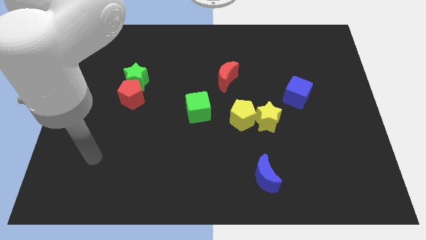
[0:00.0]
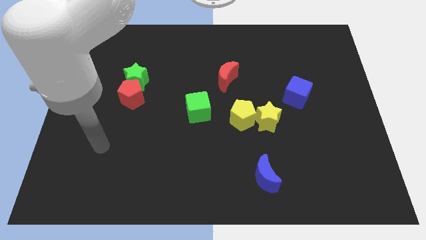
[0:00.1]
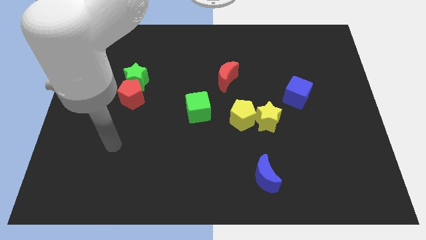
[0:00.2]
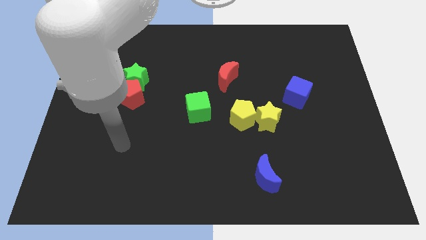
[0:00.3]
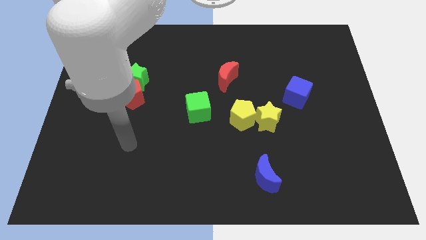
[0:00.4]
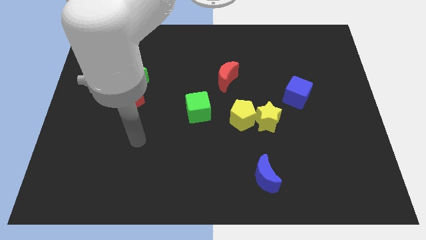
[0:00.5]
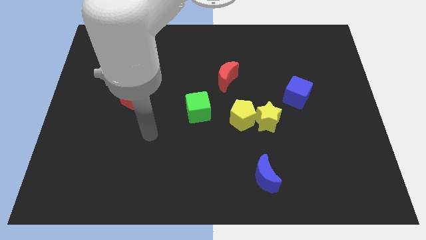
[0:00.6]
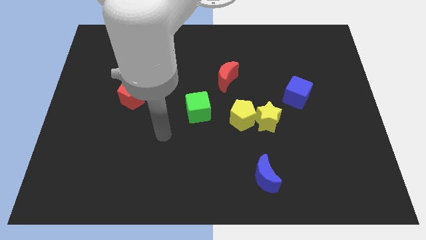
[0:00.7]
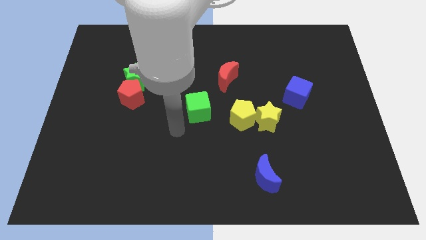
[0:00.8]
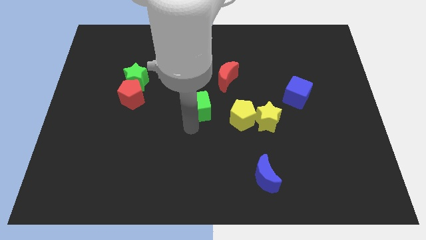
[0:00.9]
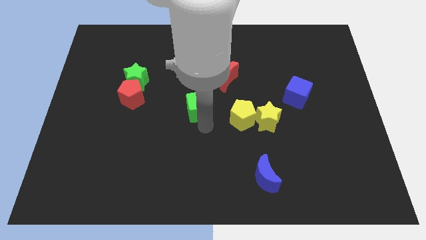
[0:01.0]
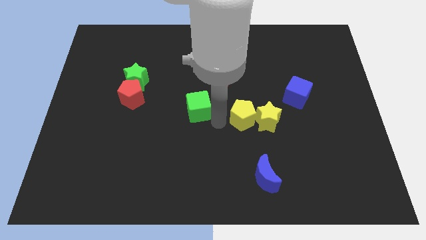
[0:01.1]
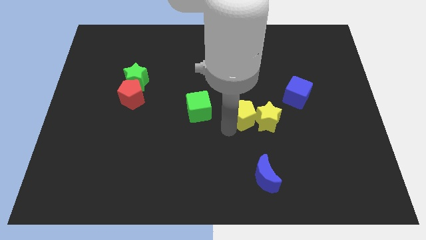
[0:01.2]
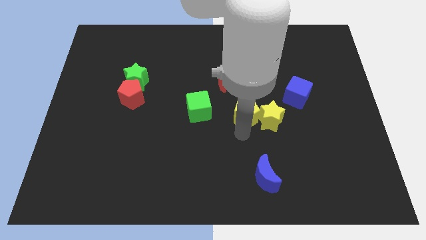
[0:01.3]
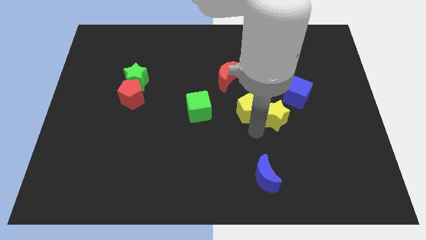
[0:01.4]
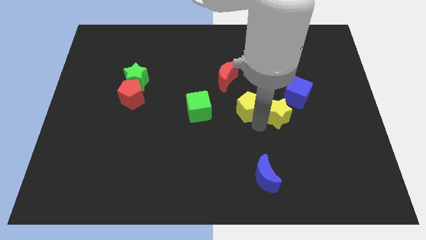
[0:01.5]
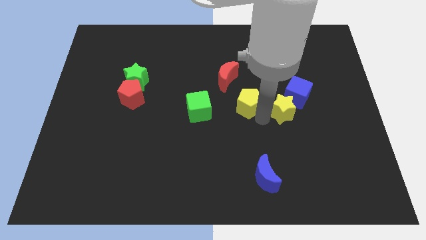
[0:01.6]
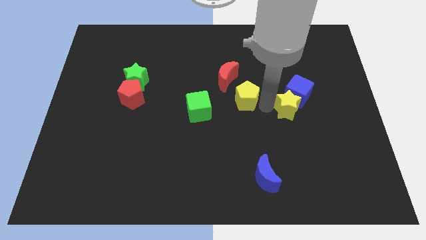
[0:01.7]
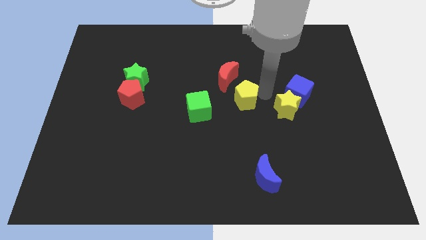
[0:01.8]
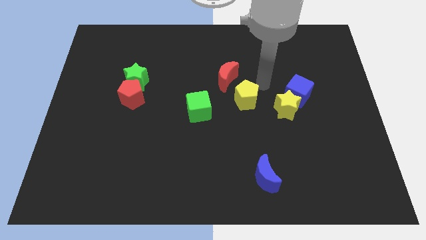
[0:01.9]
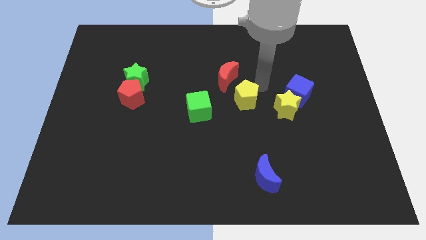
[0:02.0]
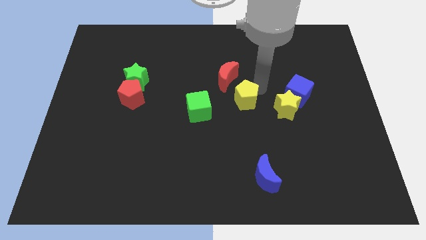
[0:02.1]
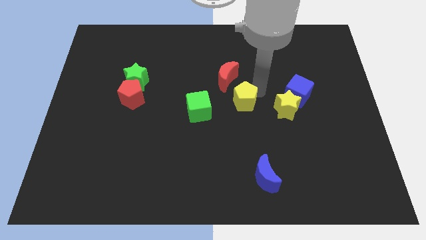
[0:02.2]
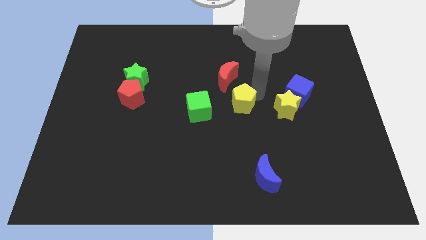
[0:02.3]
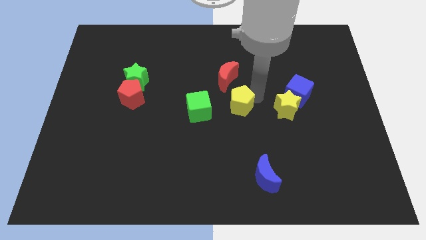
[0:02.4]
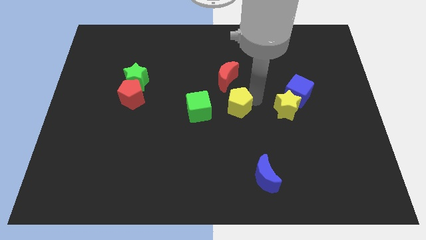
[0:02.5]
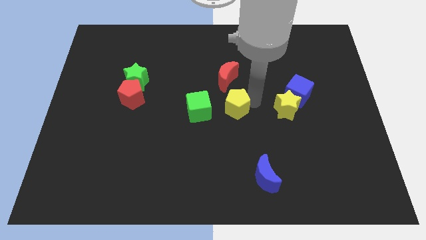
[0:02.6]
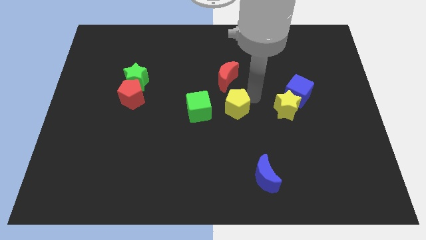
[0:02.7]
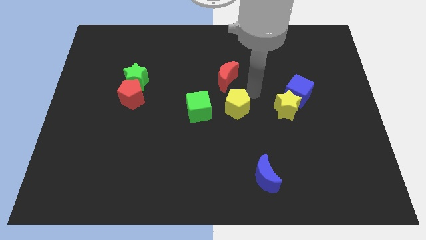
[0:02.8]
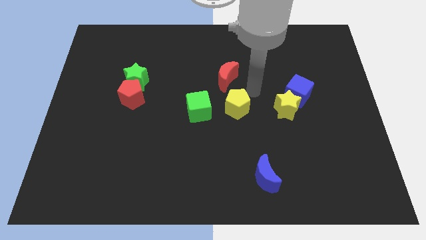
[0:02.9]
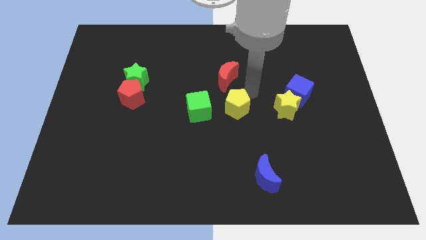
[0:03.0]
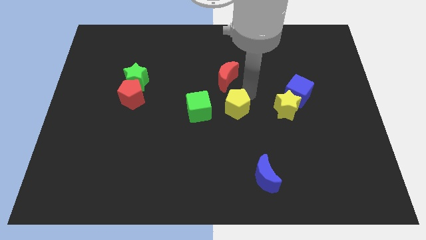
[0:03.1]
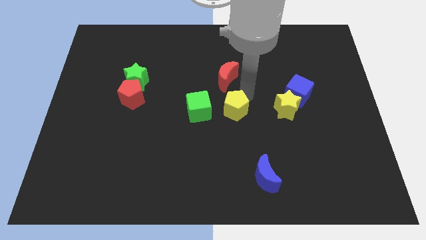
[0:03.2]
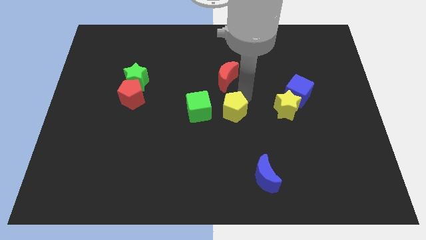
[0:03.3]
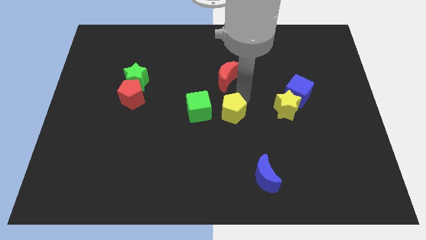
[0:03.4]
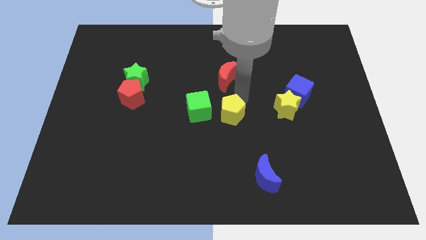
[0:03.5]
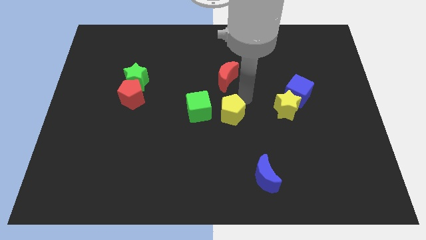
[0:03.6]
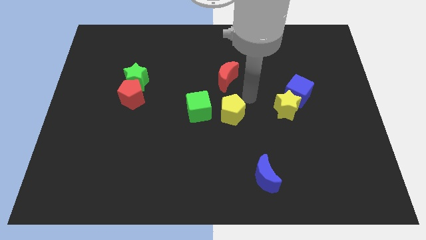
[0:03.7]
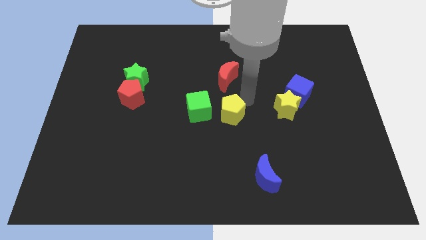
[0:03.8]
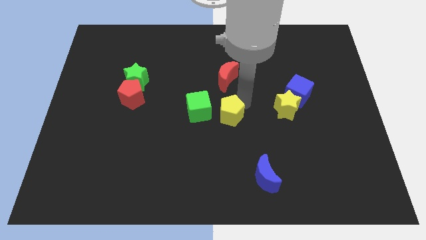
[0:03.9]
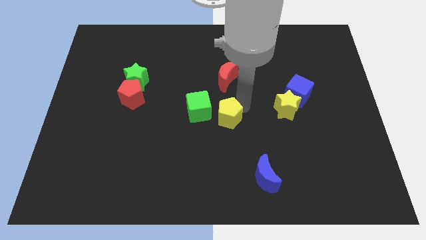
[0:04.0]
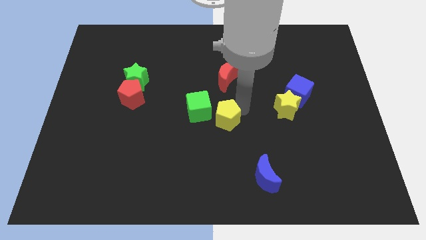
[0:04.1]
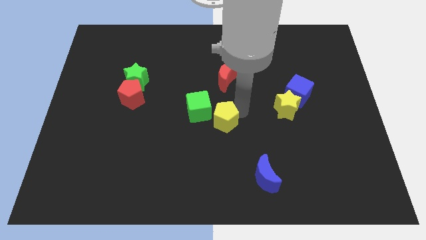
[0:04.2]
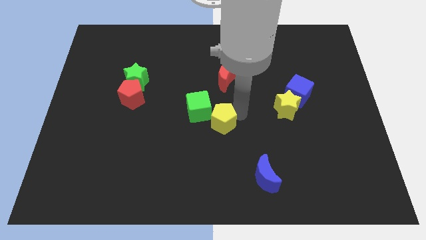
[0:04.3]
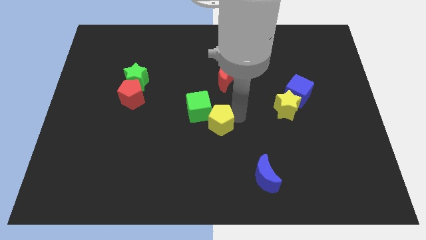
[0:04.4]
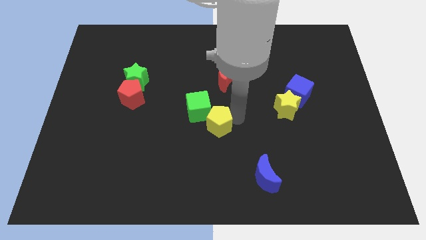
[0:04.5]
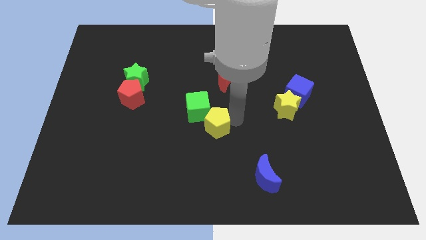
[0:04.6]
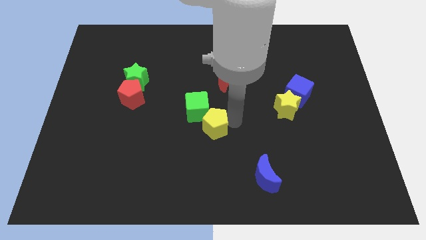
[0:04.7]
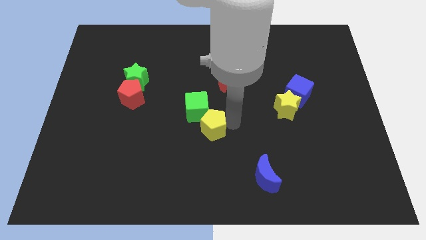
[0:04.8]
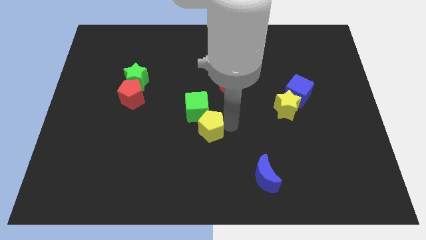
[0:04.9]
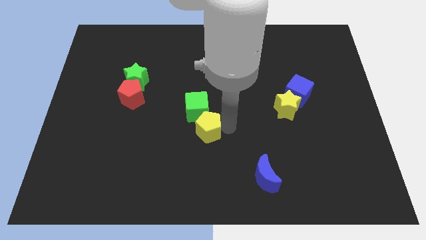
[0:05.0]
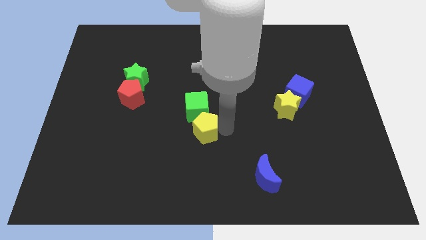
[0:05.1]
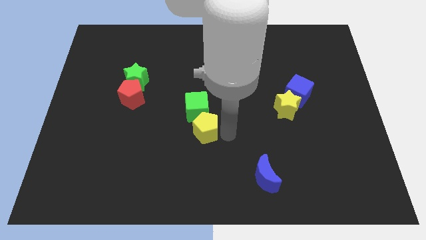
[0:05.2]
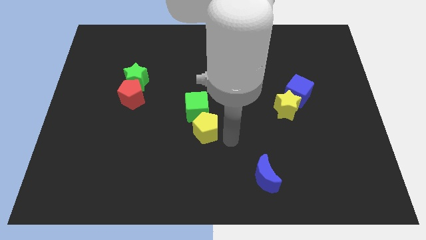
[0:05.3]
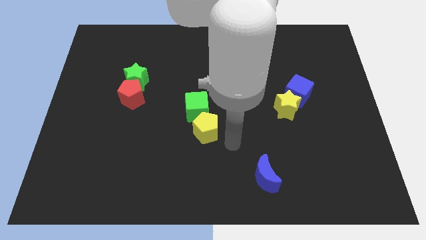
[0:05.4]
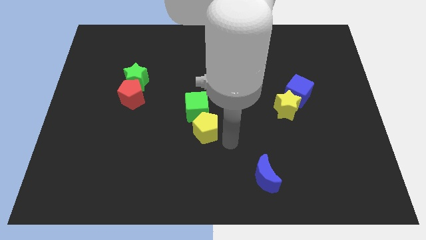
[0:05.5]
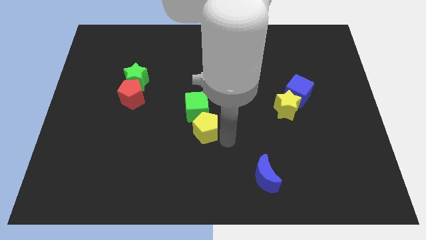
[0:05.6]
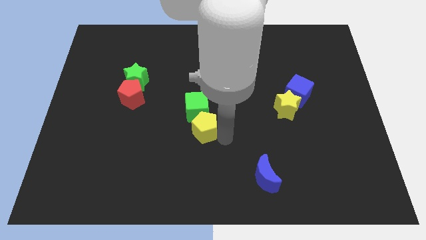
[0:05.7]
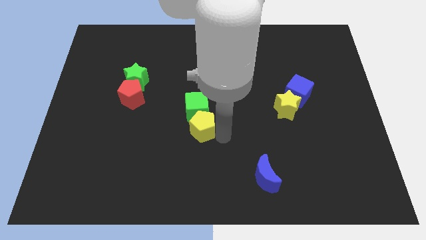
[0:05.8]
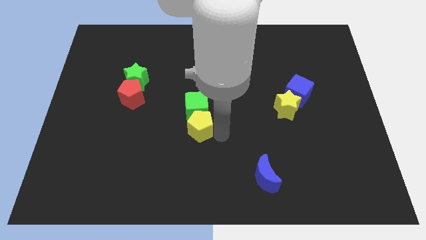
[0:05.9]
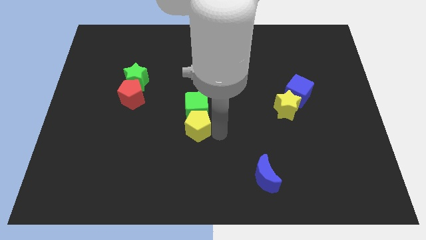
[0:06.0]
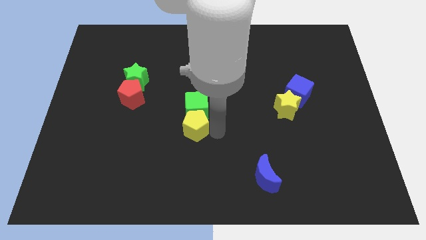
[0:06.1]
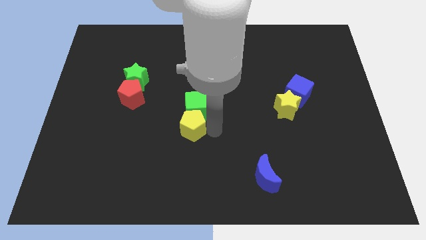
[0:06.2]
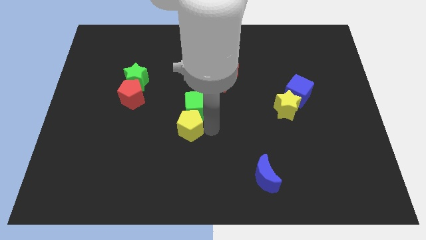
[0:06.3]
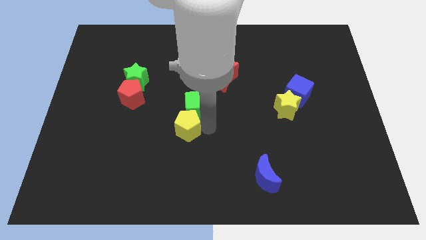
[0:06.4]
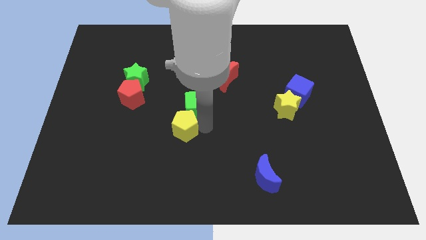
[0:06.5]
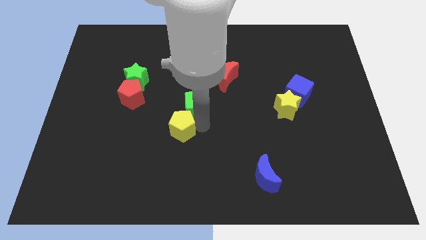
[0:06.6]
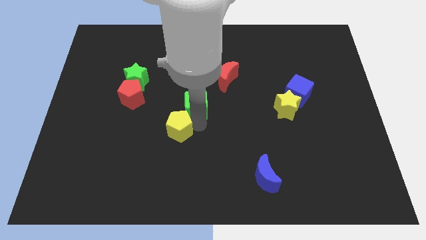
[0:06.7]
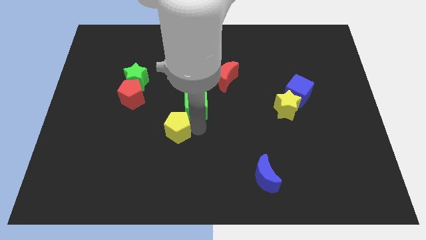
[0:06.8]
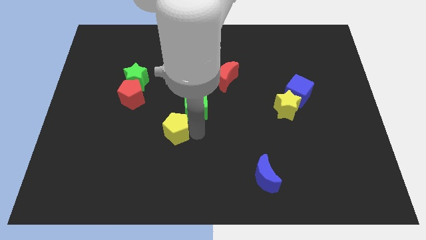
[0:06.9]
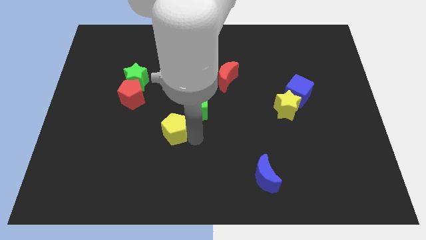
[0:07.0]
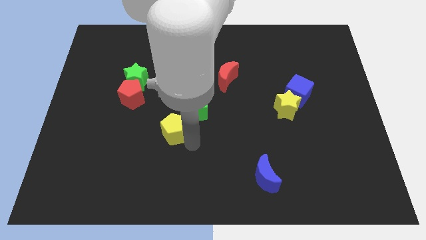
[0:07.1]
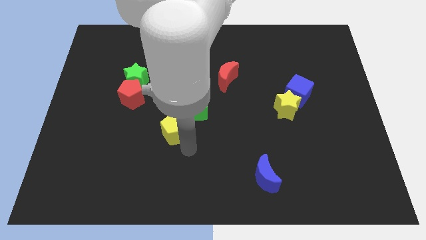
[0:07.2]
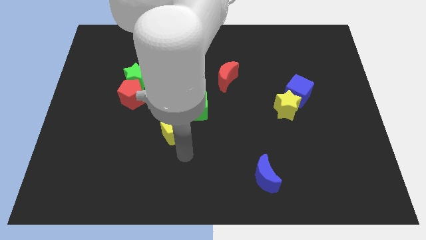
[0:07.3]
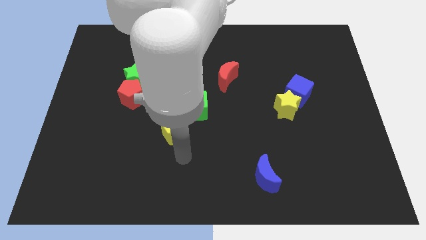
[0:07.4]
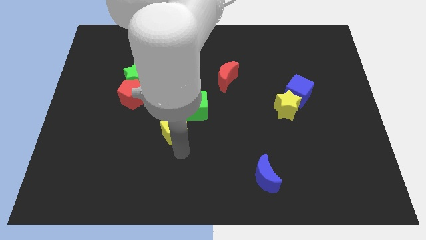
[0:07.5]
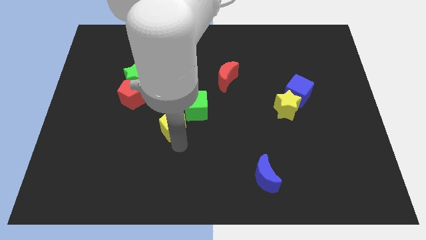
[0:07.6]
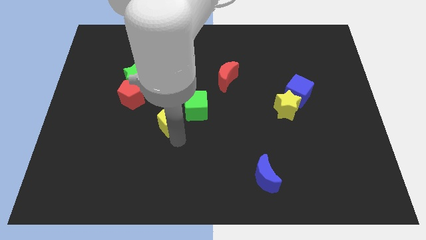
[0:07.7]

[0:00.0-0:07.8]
slide the yellow pentagon to the left of the green cube
